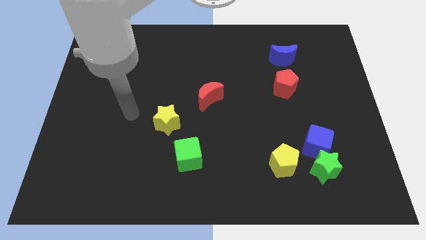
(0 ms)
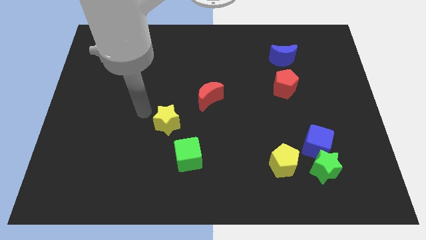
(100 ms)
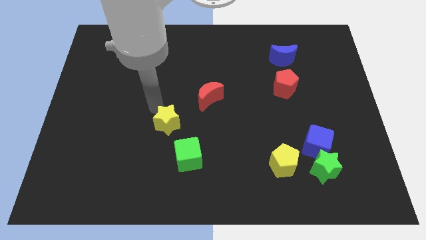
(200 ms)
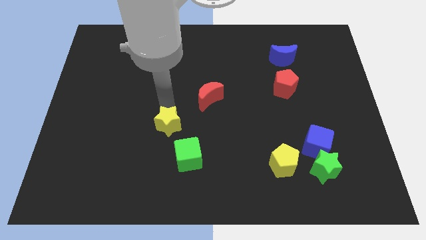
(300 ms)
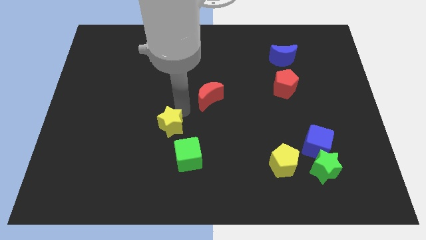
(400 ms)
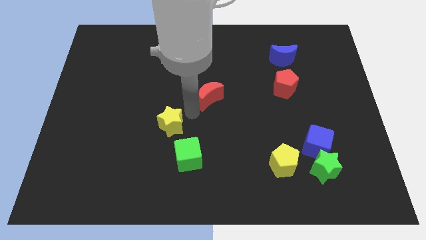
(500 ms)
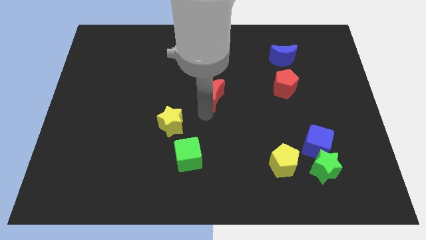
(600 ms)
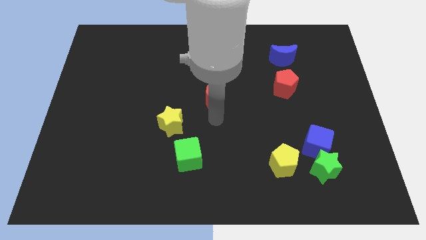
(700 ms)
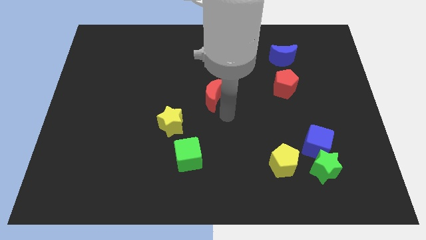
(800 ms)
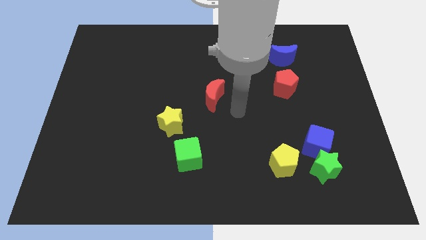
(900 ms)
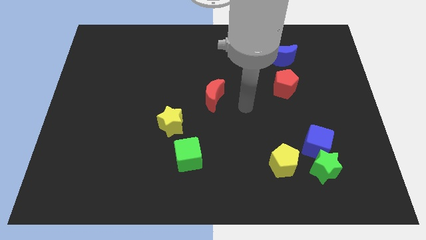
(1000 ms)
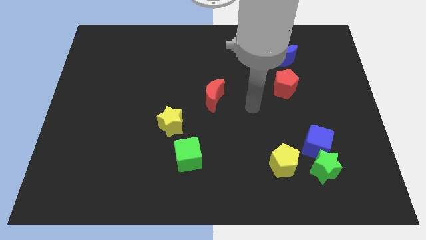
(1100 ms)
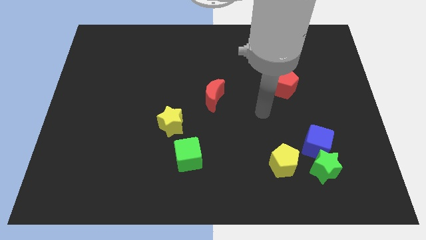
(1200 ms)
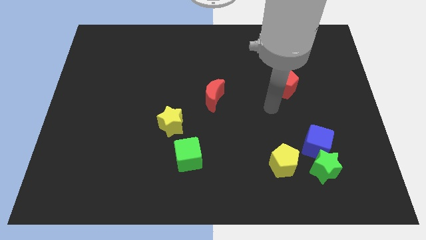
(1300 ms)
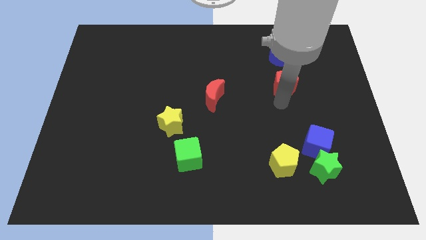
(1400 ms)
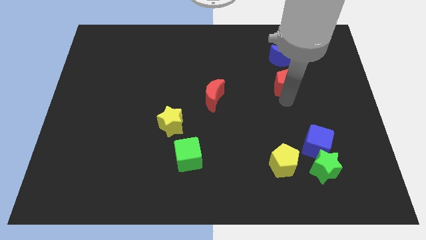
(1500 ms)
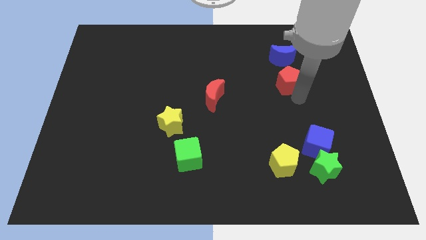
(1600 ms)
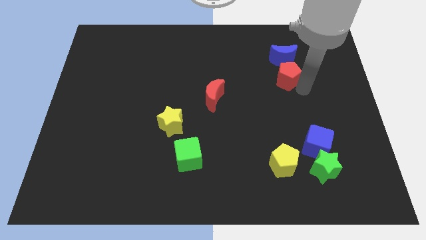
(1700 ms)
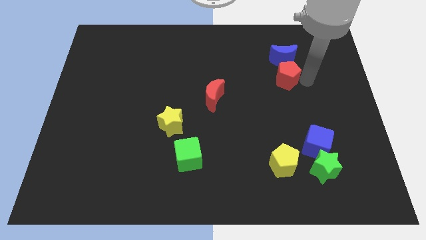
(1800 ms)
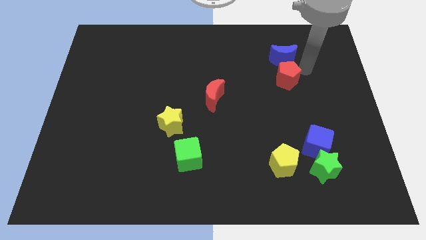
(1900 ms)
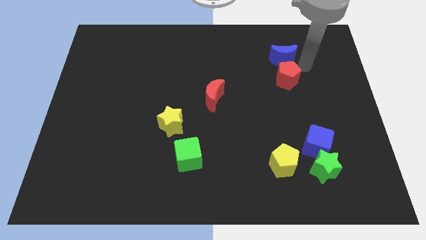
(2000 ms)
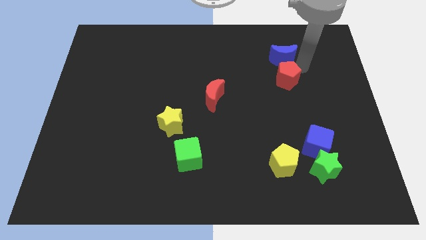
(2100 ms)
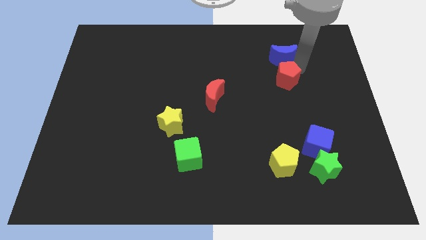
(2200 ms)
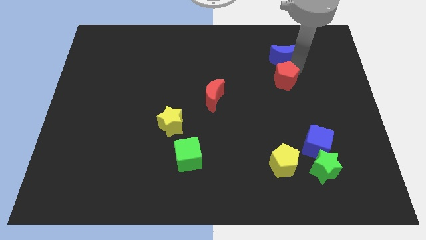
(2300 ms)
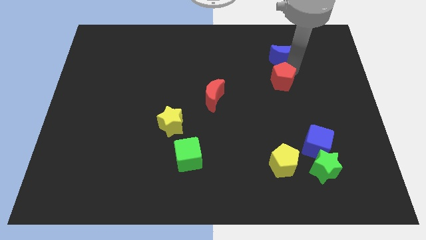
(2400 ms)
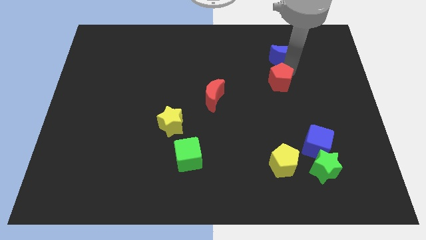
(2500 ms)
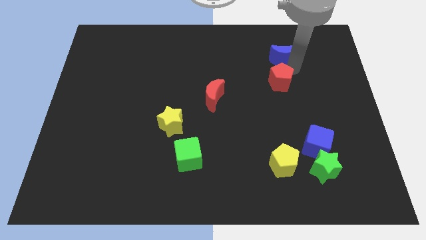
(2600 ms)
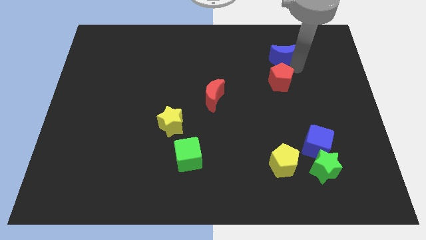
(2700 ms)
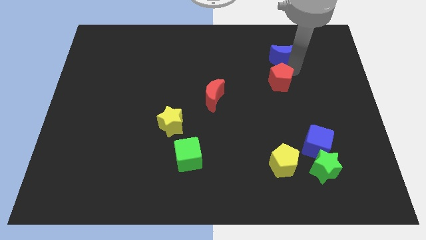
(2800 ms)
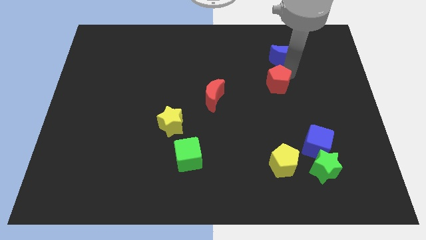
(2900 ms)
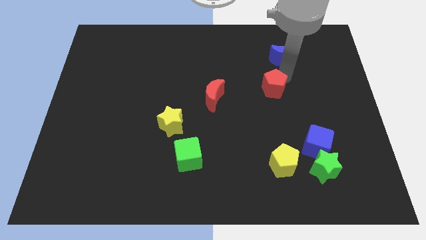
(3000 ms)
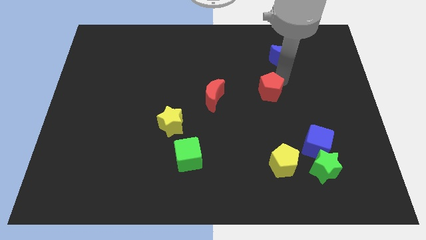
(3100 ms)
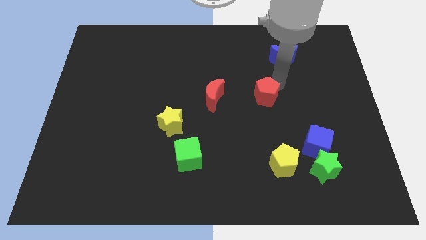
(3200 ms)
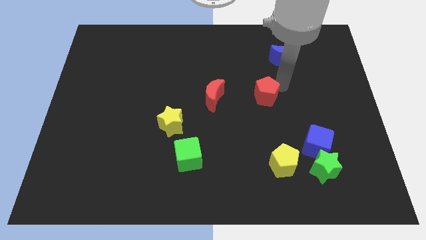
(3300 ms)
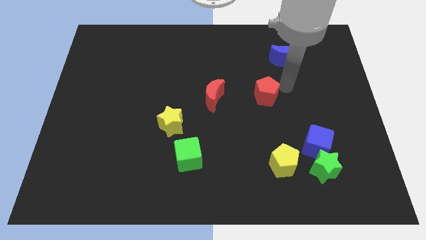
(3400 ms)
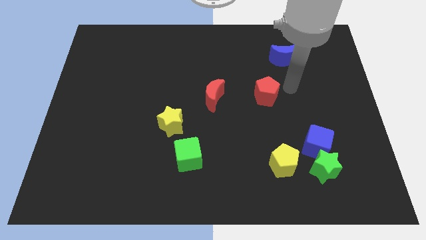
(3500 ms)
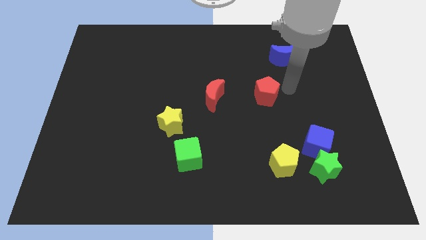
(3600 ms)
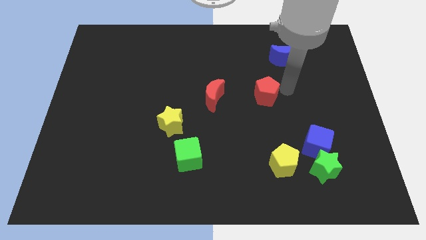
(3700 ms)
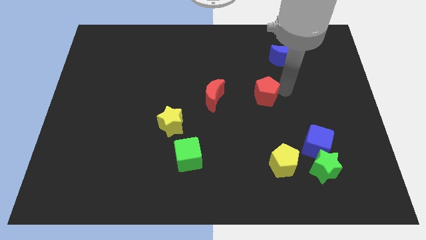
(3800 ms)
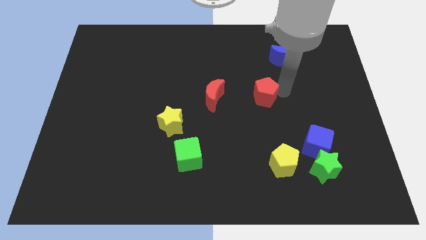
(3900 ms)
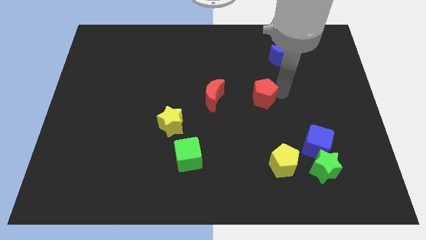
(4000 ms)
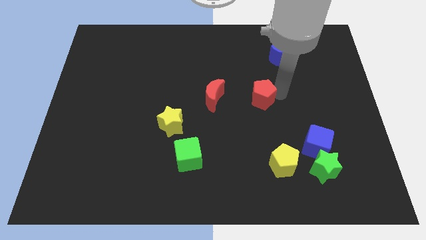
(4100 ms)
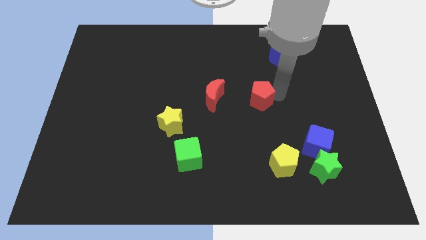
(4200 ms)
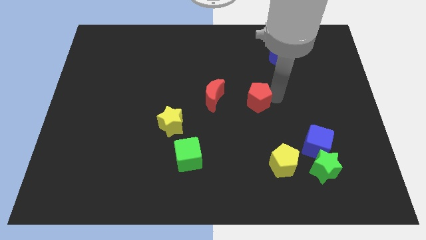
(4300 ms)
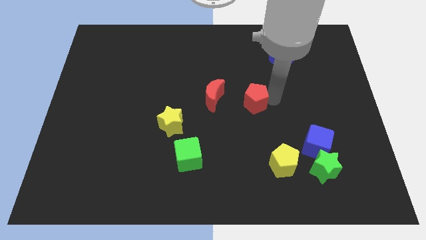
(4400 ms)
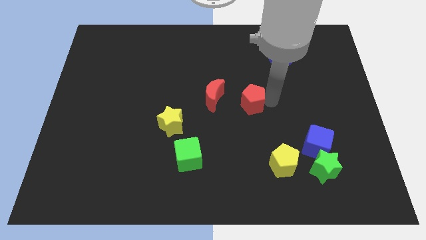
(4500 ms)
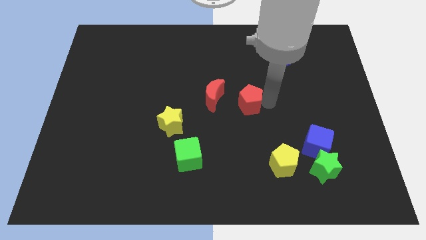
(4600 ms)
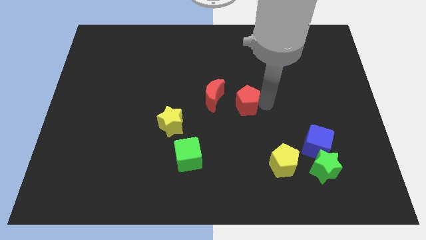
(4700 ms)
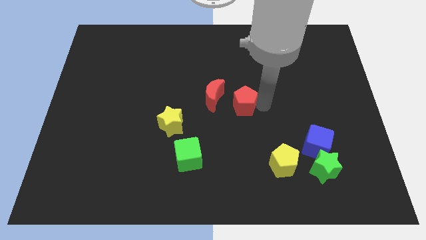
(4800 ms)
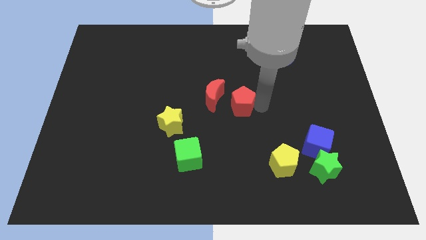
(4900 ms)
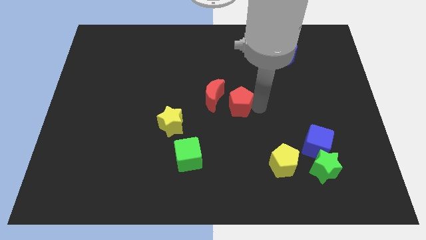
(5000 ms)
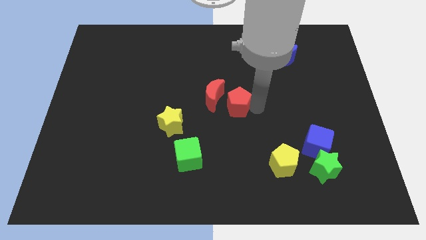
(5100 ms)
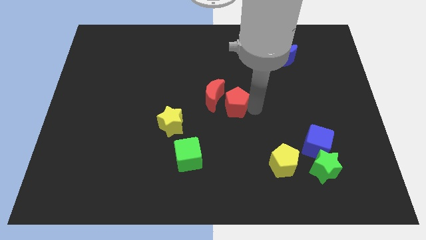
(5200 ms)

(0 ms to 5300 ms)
push the red pentagon towards the red moon

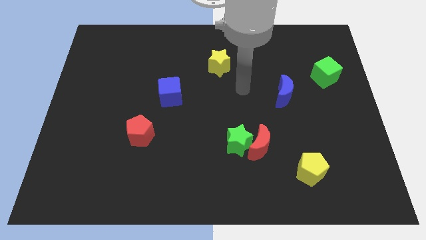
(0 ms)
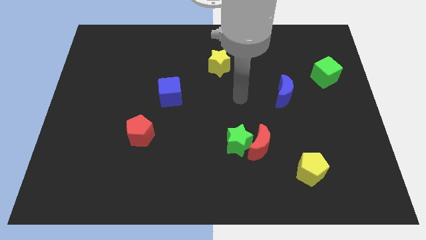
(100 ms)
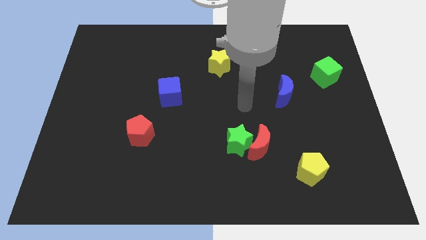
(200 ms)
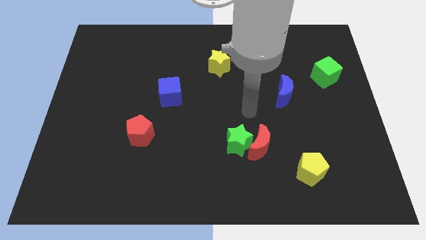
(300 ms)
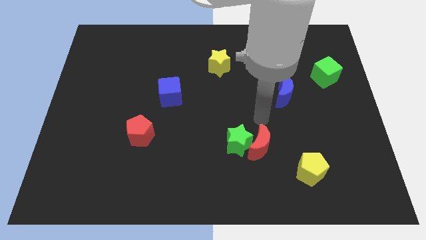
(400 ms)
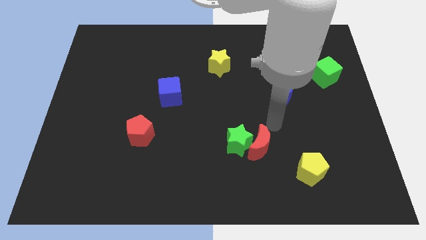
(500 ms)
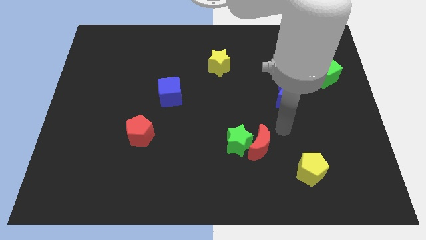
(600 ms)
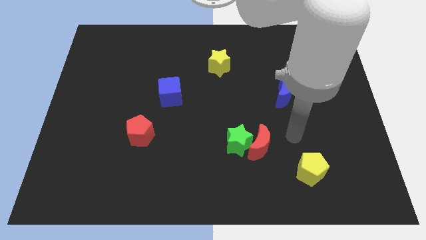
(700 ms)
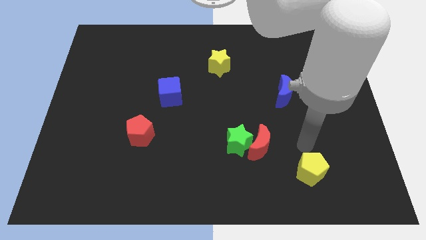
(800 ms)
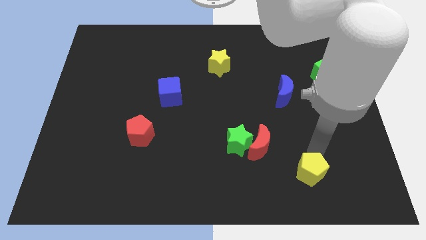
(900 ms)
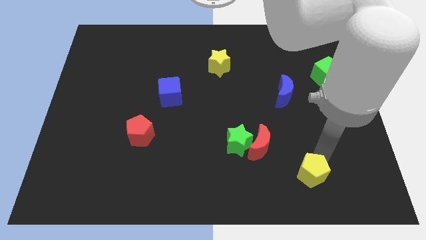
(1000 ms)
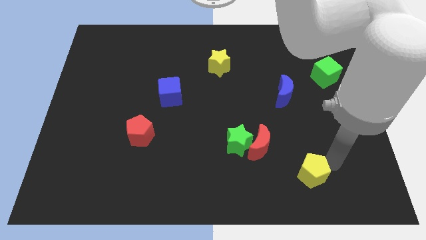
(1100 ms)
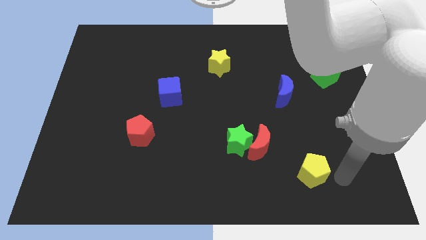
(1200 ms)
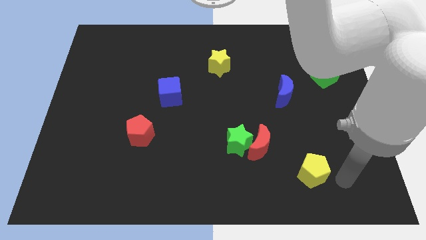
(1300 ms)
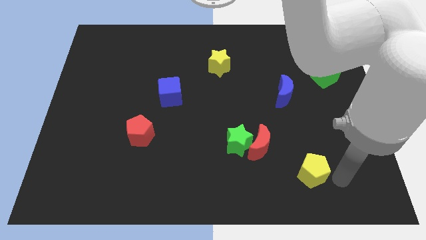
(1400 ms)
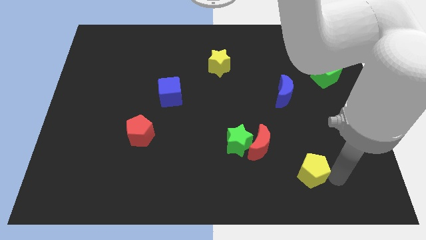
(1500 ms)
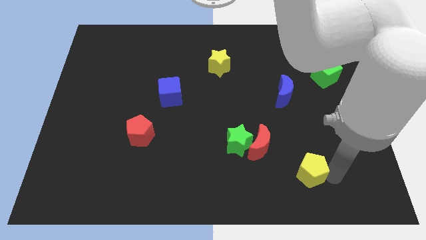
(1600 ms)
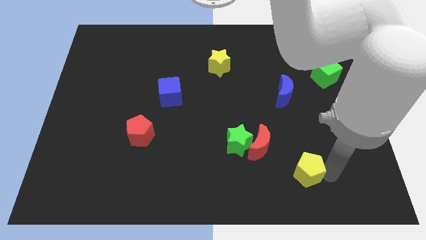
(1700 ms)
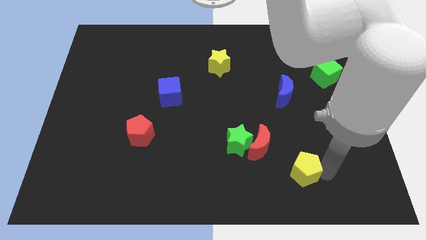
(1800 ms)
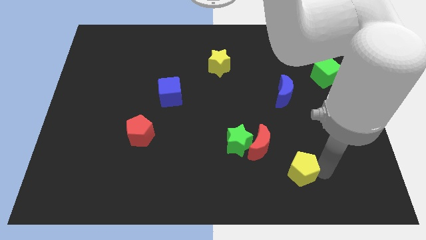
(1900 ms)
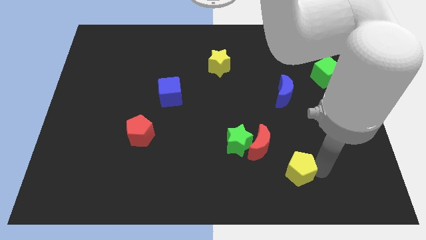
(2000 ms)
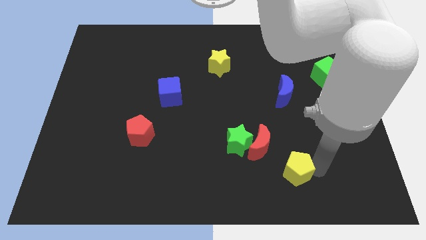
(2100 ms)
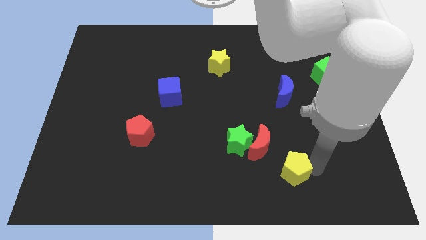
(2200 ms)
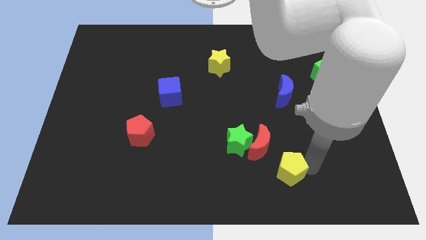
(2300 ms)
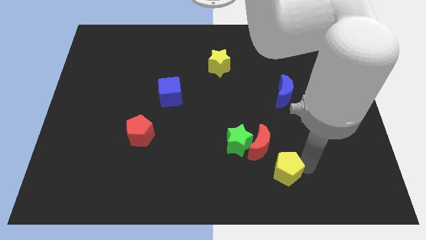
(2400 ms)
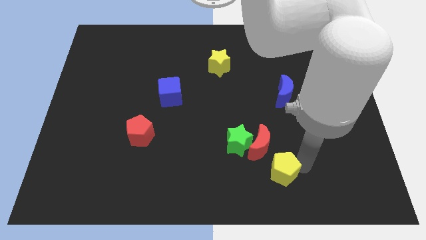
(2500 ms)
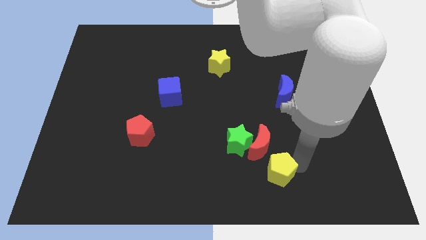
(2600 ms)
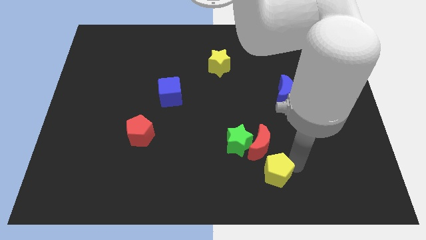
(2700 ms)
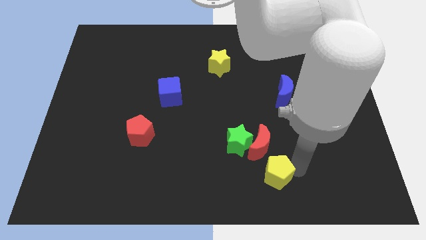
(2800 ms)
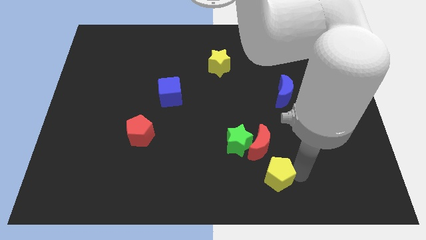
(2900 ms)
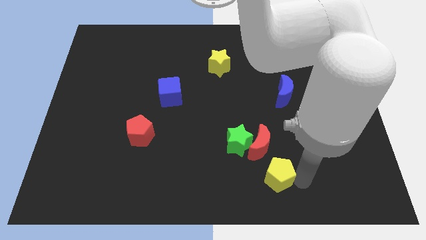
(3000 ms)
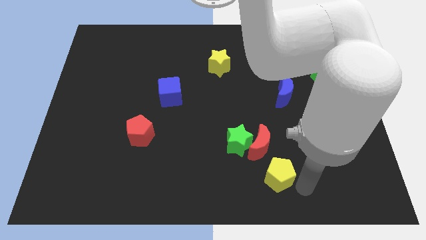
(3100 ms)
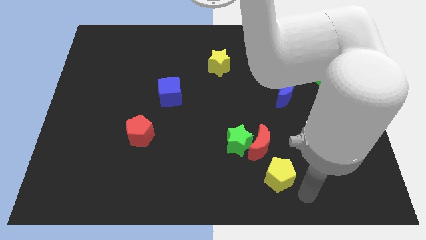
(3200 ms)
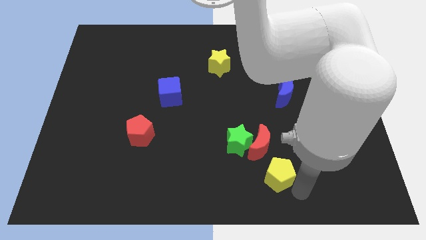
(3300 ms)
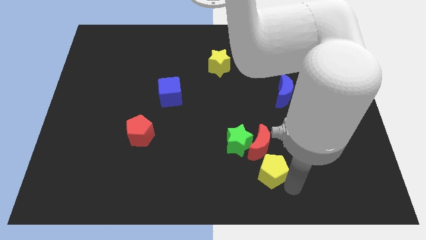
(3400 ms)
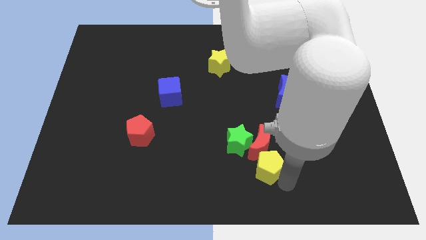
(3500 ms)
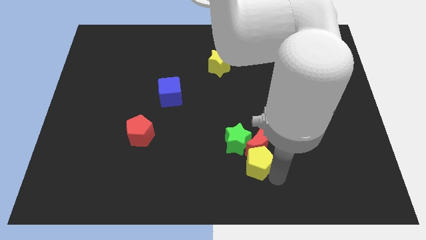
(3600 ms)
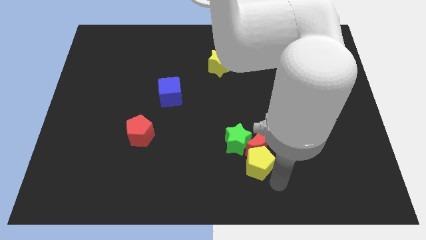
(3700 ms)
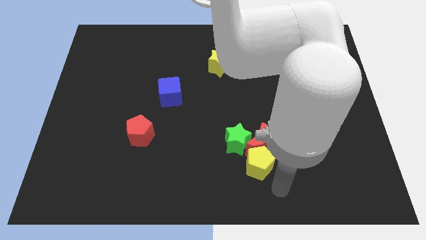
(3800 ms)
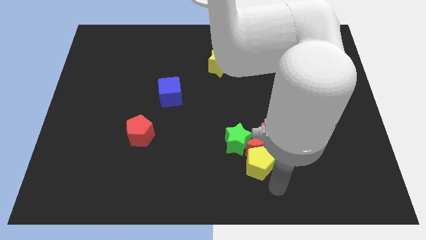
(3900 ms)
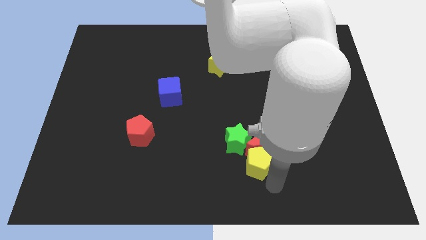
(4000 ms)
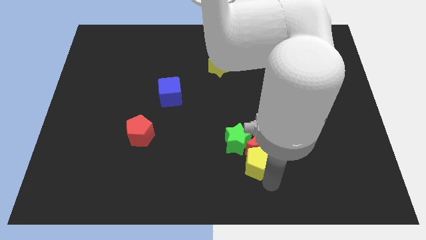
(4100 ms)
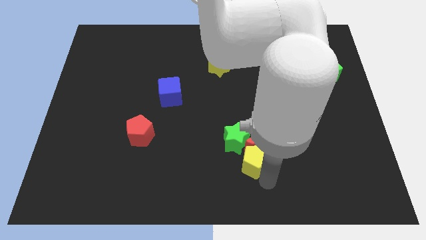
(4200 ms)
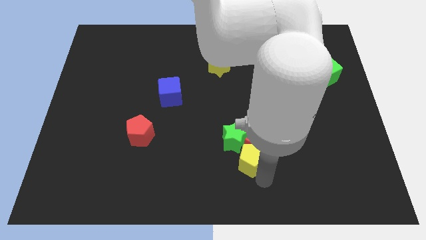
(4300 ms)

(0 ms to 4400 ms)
push the yellow pentagon towards the green star
